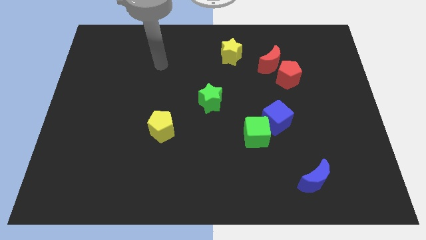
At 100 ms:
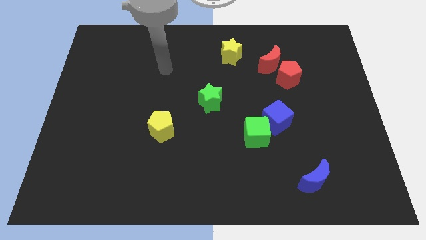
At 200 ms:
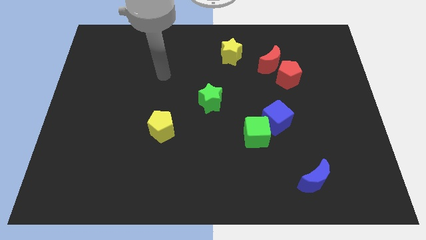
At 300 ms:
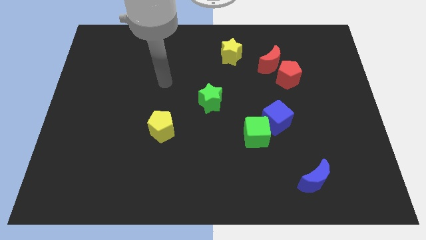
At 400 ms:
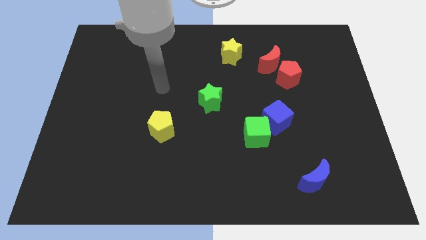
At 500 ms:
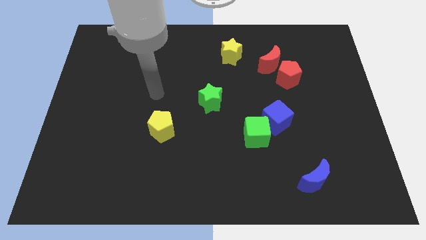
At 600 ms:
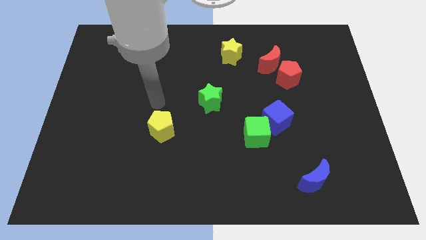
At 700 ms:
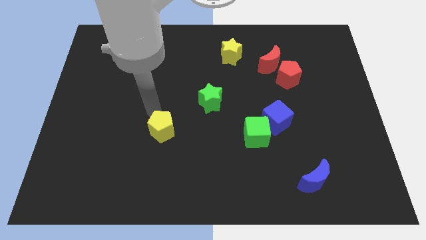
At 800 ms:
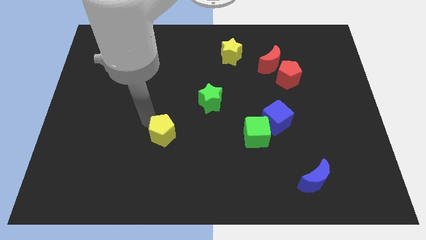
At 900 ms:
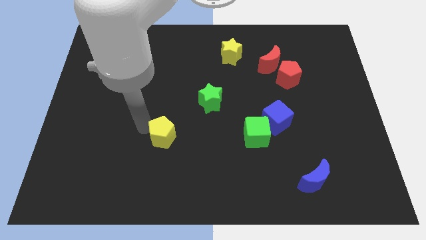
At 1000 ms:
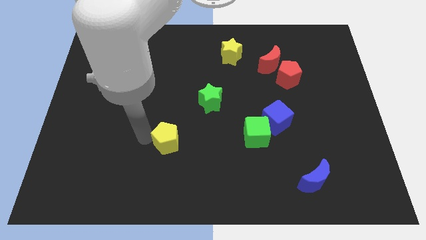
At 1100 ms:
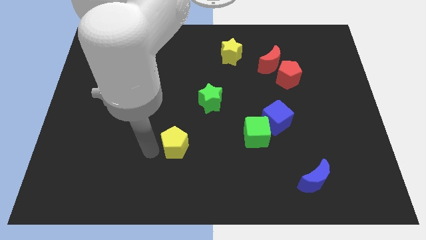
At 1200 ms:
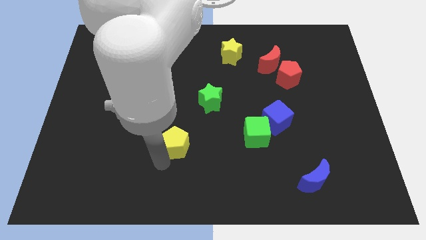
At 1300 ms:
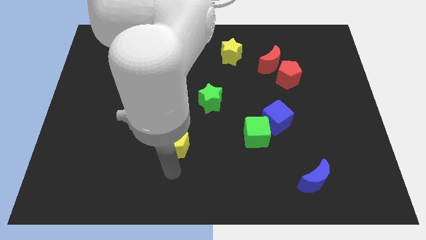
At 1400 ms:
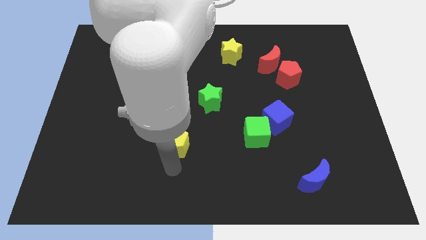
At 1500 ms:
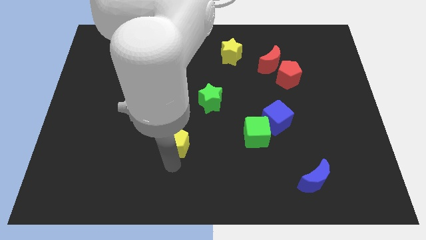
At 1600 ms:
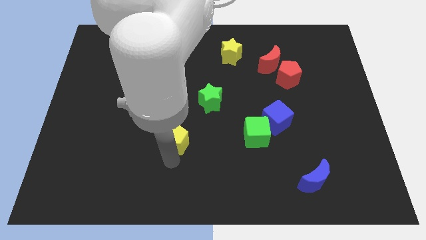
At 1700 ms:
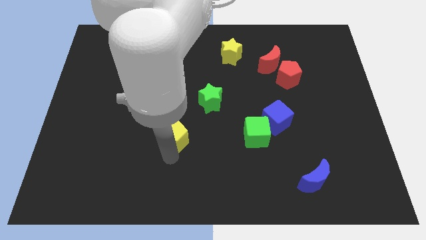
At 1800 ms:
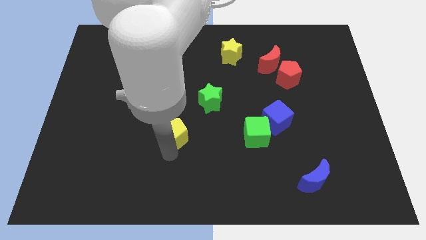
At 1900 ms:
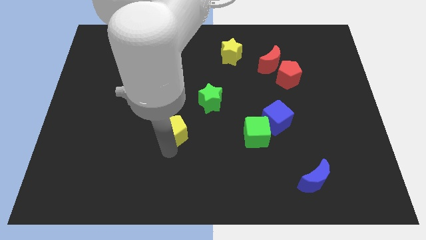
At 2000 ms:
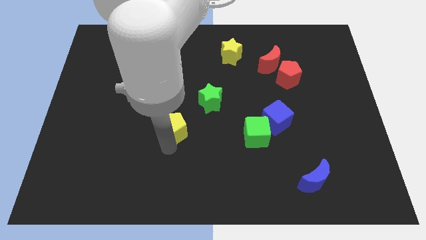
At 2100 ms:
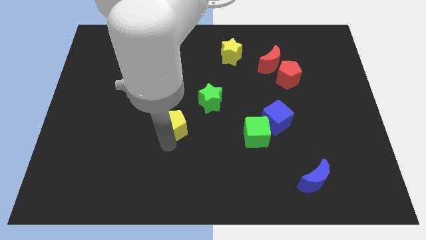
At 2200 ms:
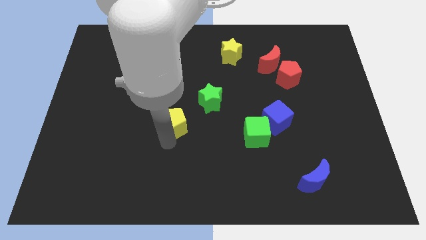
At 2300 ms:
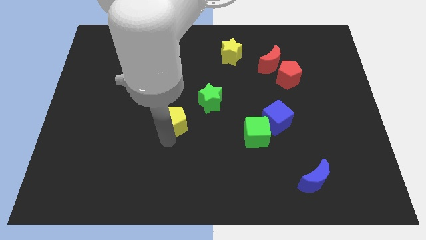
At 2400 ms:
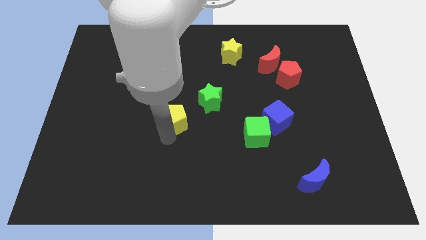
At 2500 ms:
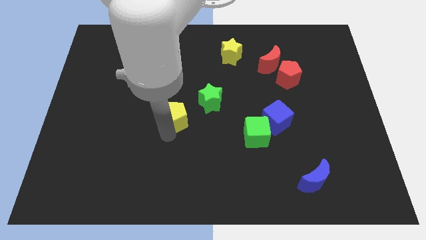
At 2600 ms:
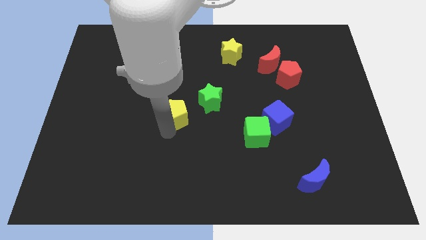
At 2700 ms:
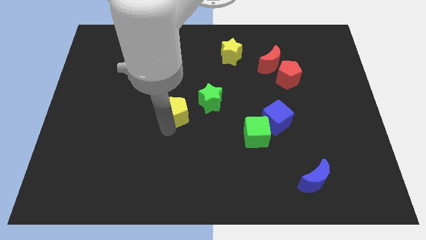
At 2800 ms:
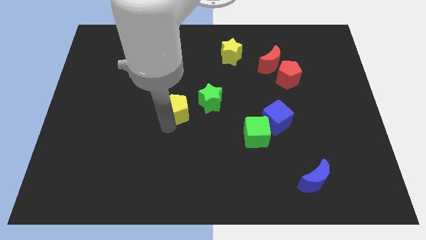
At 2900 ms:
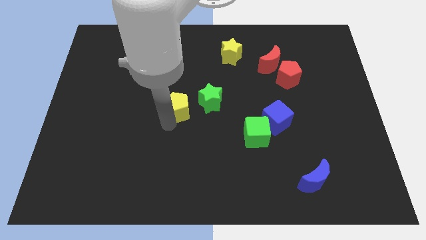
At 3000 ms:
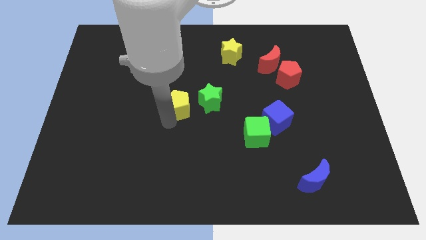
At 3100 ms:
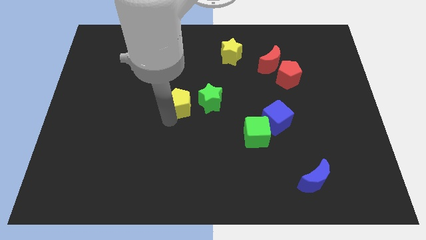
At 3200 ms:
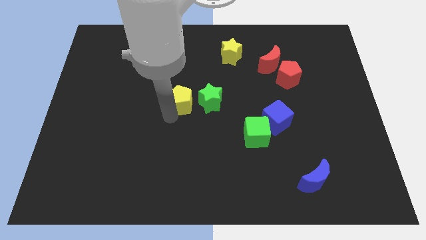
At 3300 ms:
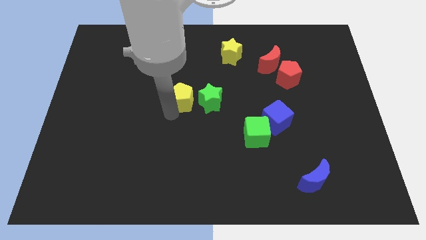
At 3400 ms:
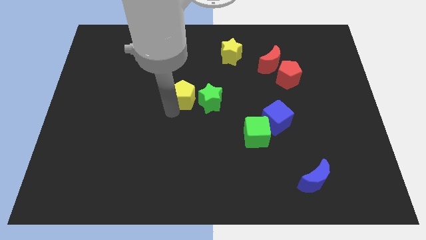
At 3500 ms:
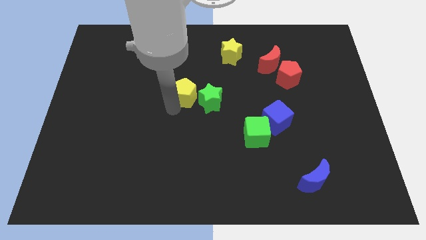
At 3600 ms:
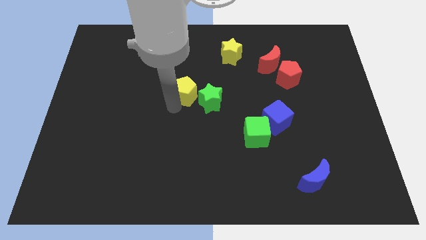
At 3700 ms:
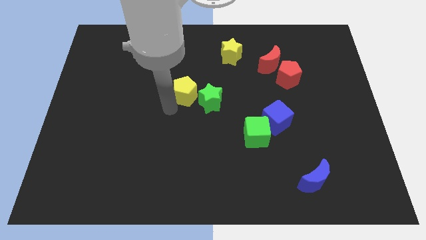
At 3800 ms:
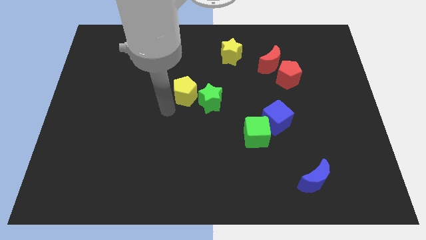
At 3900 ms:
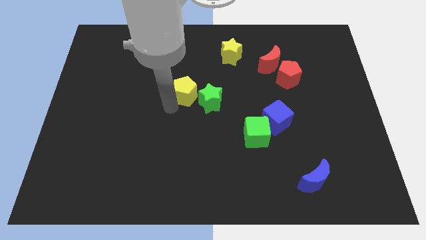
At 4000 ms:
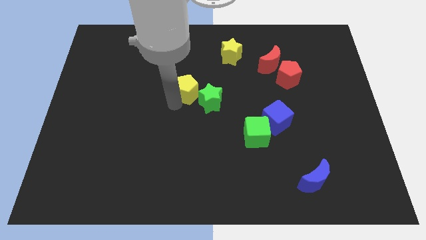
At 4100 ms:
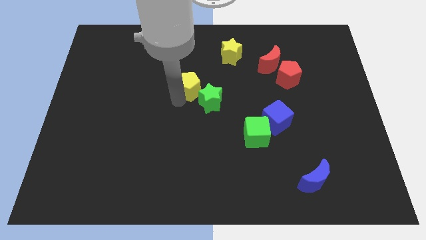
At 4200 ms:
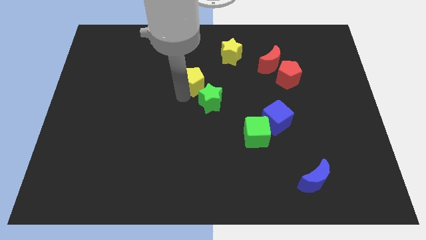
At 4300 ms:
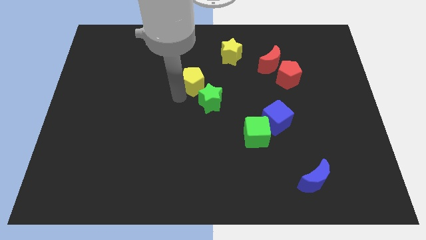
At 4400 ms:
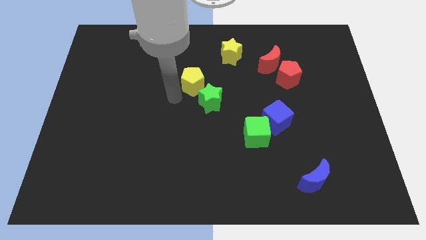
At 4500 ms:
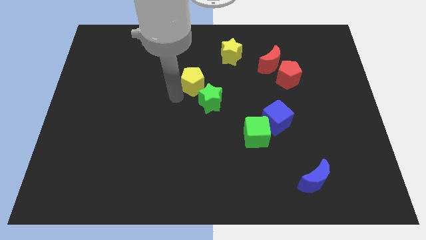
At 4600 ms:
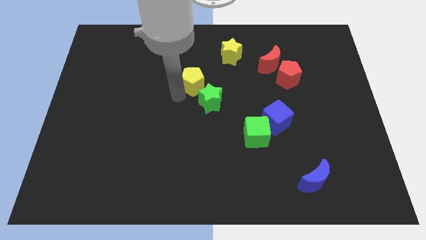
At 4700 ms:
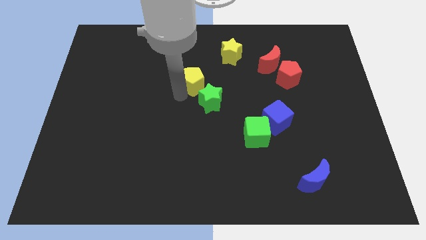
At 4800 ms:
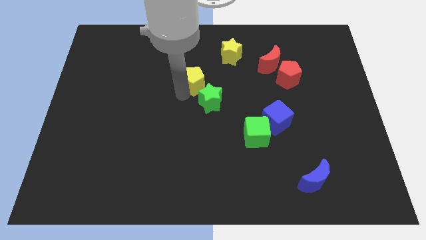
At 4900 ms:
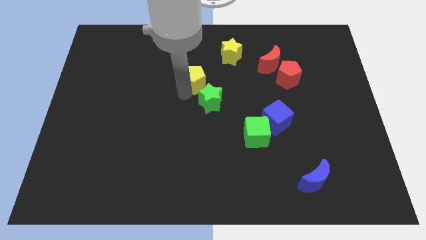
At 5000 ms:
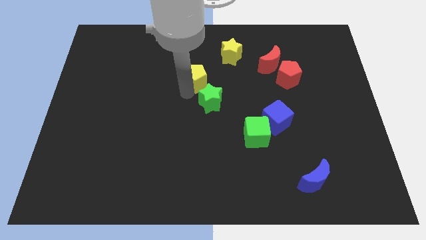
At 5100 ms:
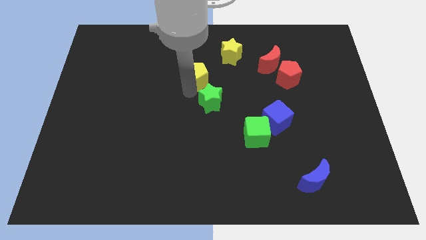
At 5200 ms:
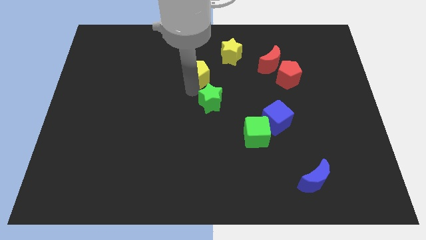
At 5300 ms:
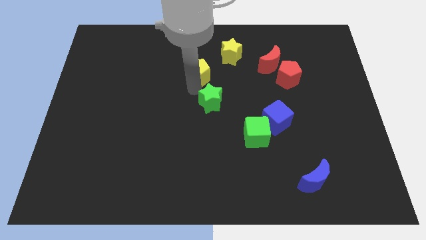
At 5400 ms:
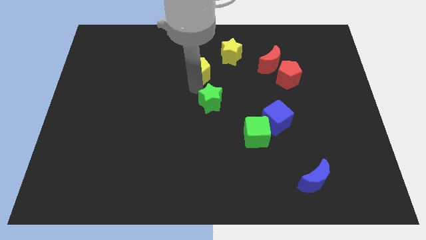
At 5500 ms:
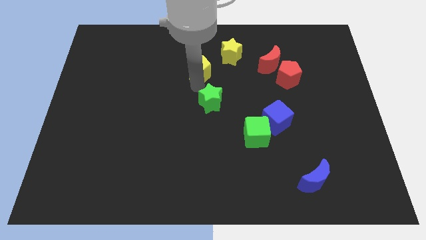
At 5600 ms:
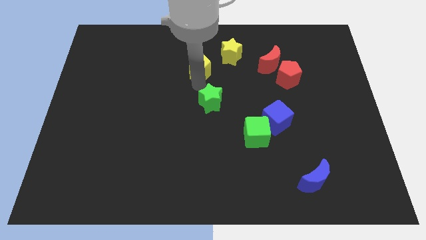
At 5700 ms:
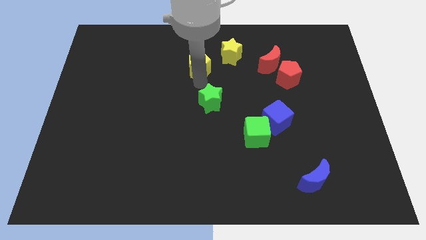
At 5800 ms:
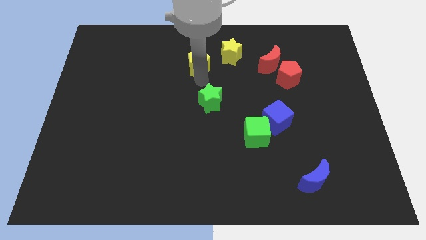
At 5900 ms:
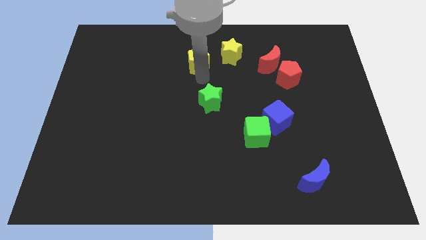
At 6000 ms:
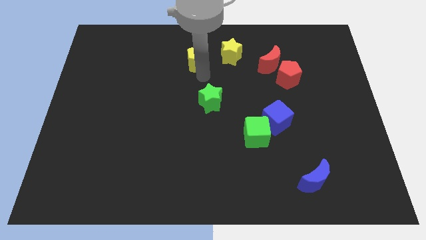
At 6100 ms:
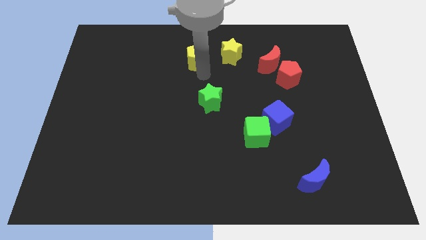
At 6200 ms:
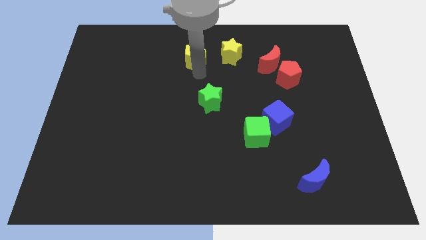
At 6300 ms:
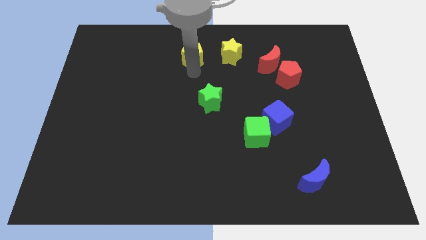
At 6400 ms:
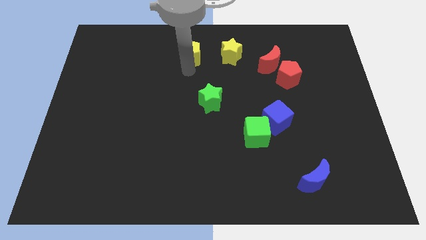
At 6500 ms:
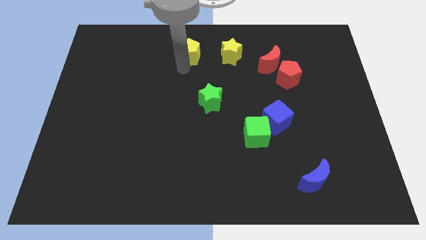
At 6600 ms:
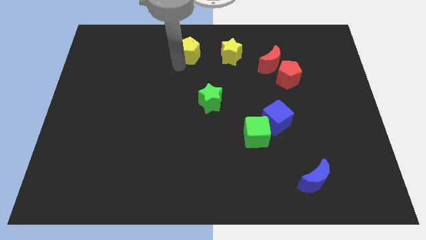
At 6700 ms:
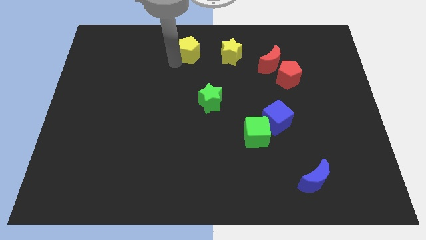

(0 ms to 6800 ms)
push the yellow pentagon to the towards your base
